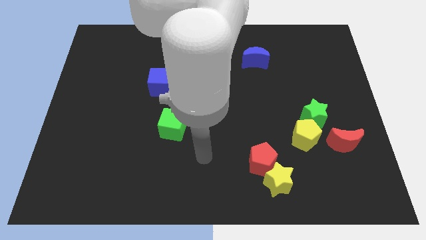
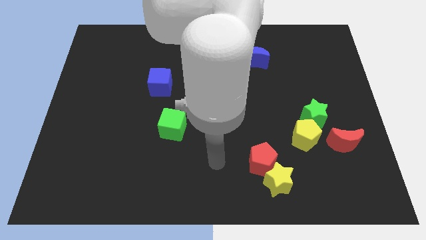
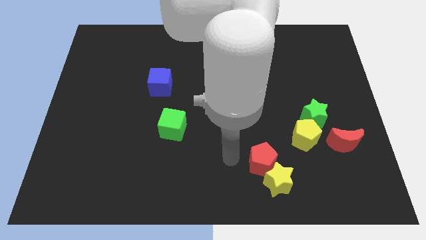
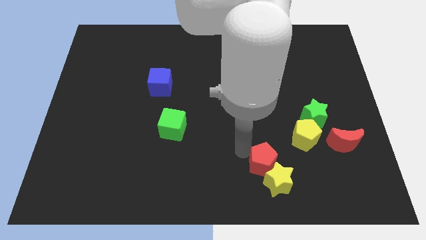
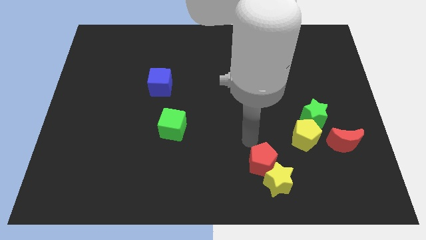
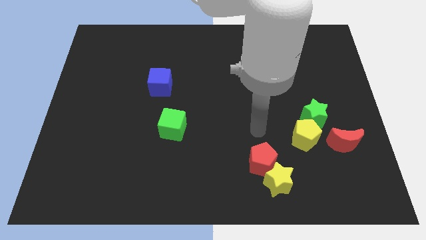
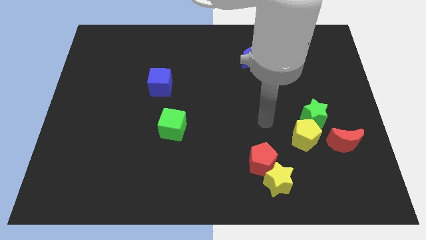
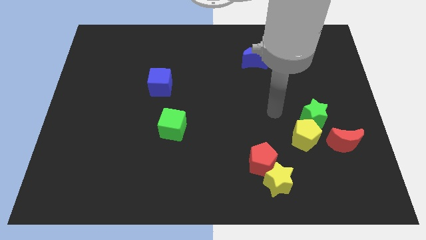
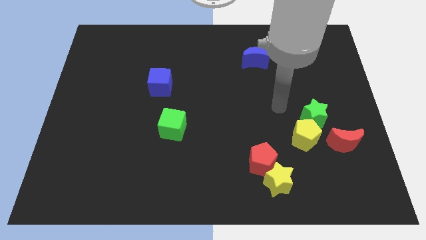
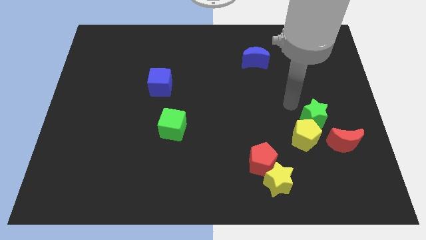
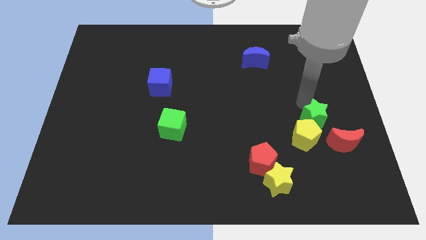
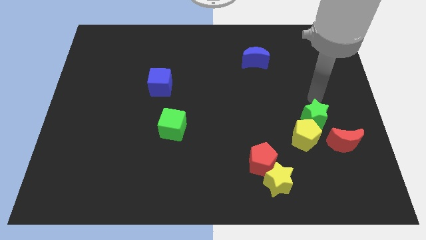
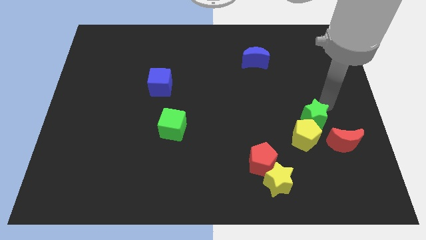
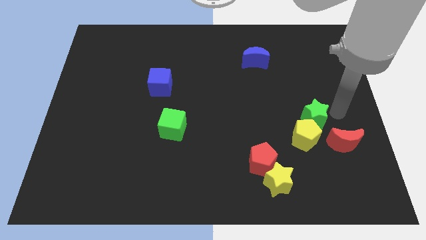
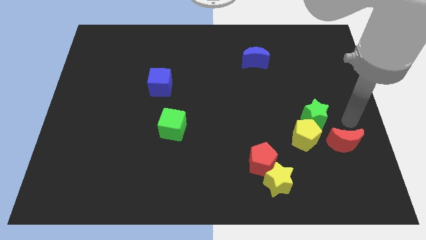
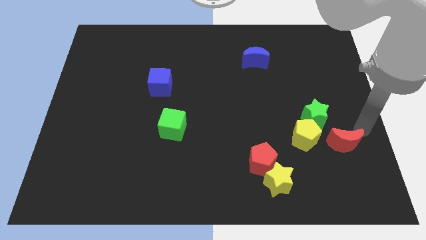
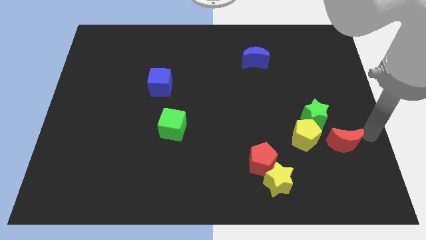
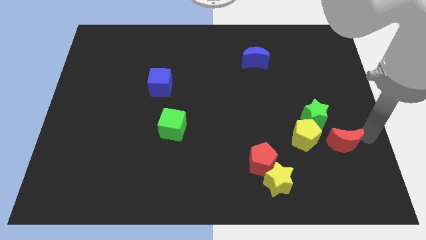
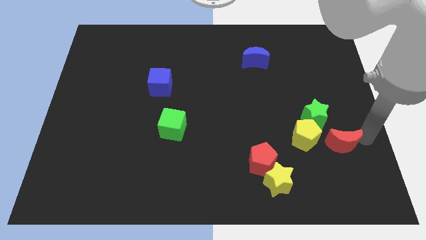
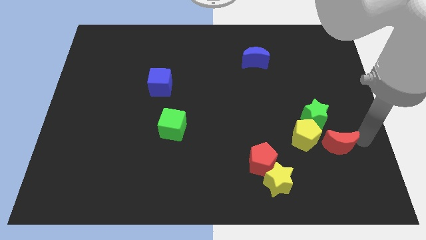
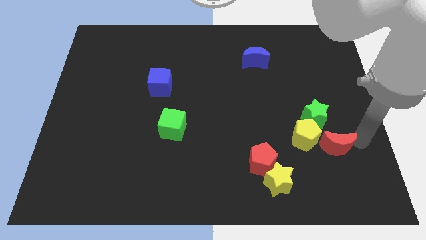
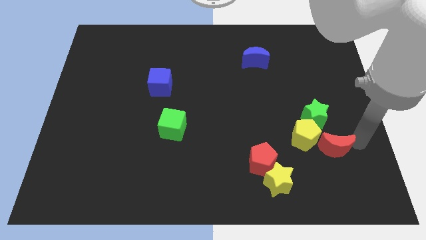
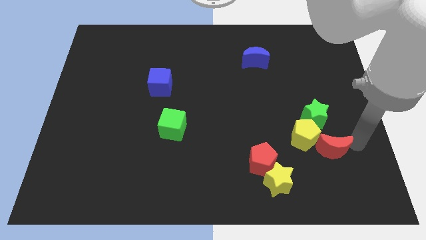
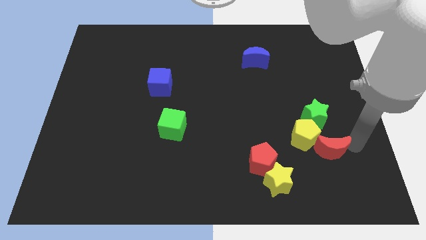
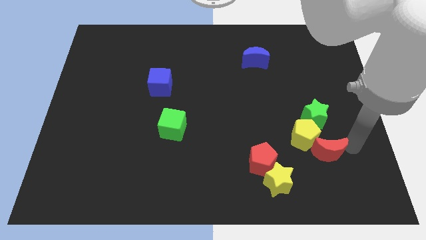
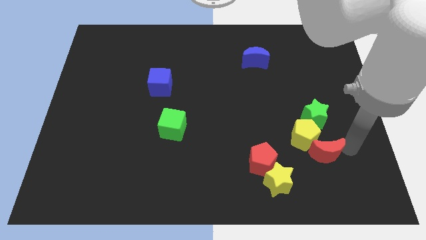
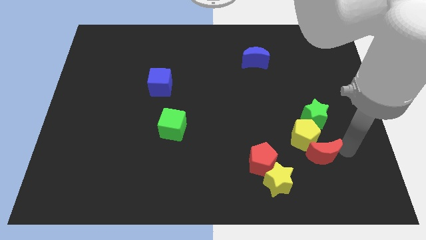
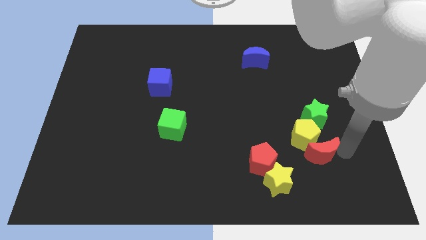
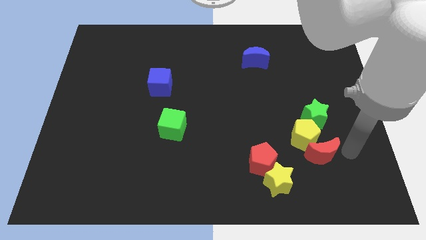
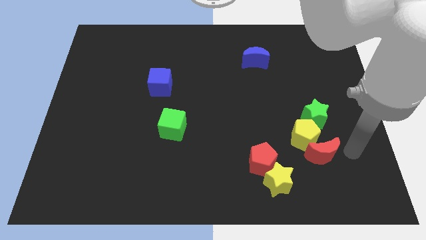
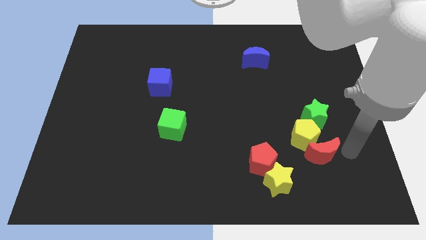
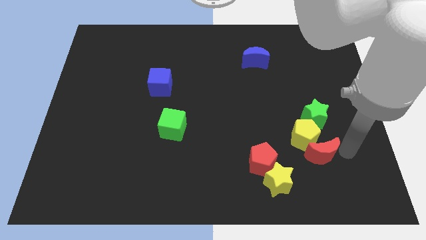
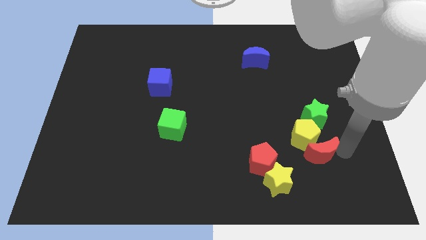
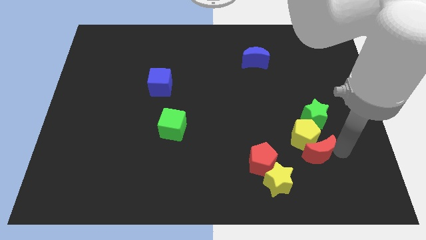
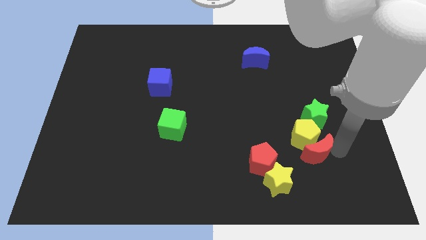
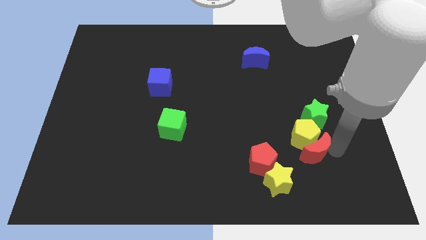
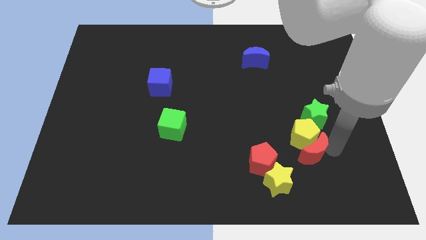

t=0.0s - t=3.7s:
move the red moon slightly to the left

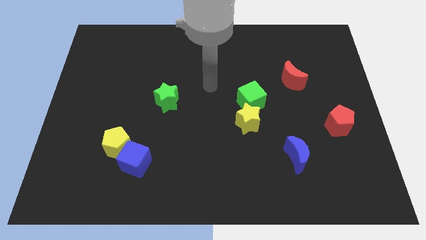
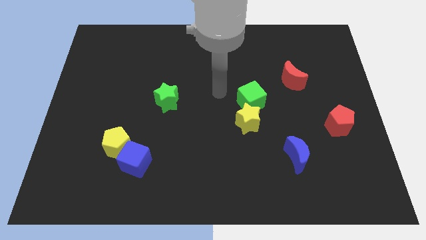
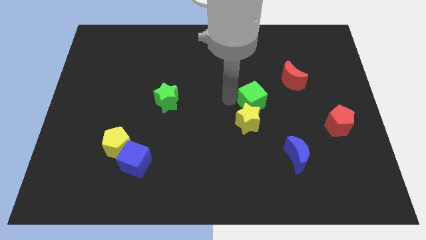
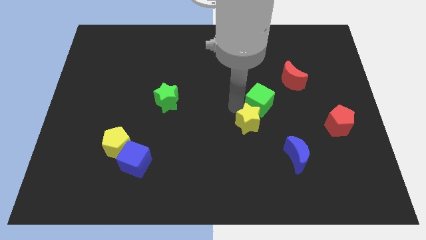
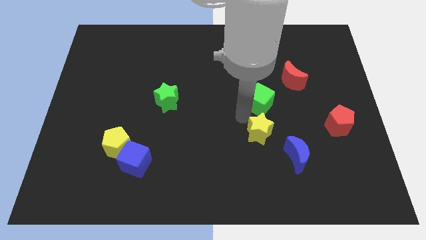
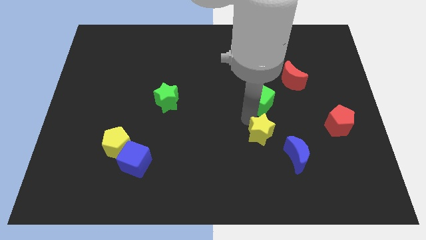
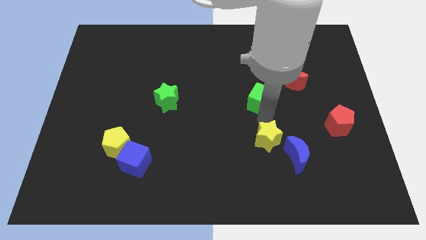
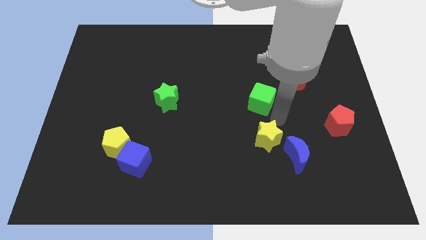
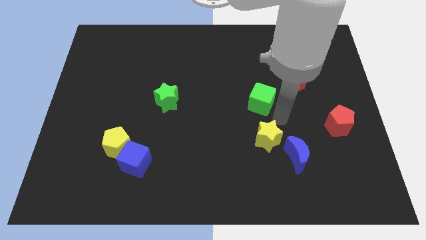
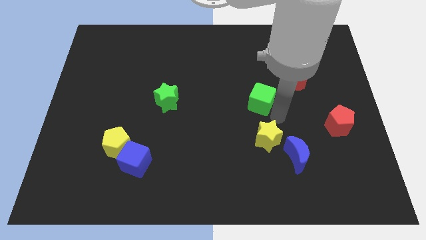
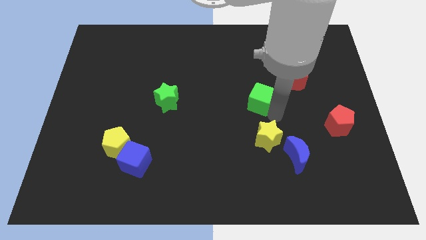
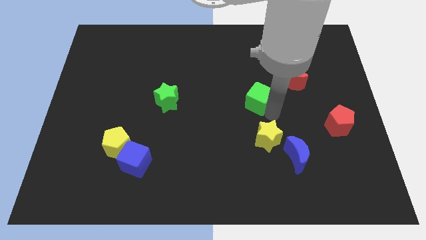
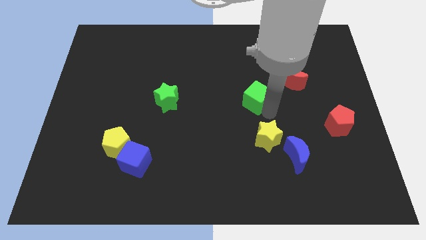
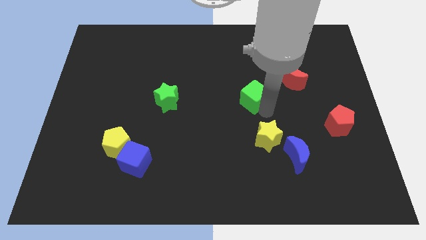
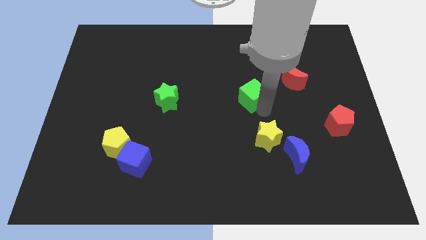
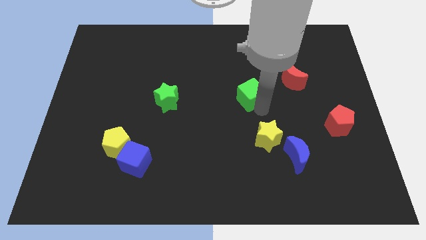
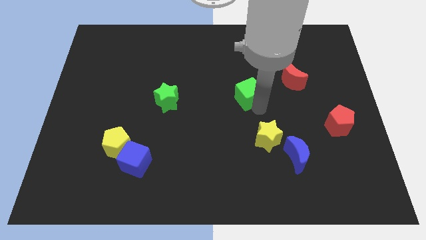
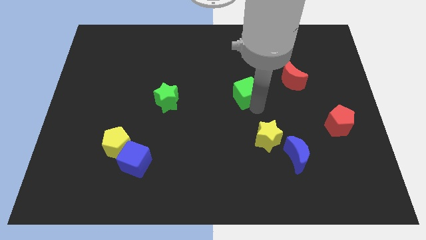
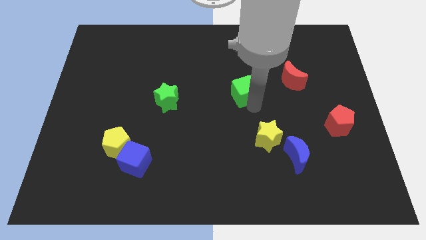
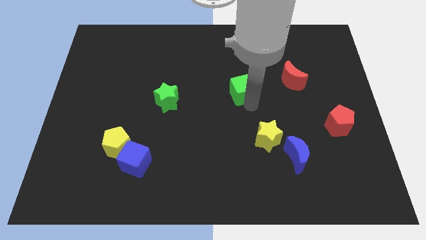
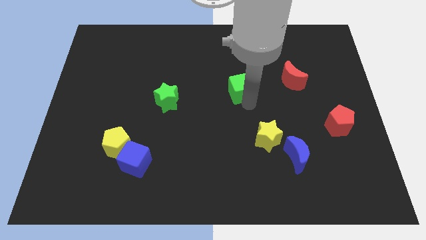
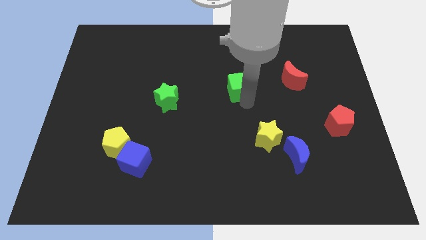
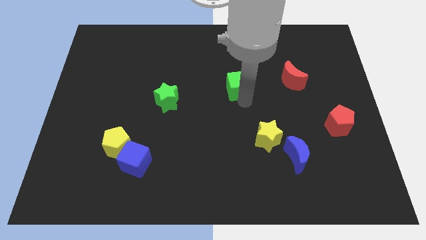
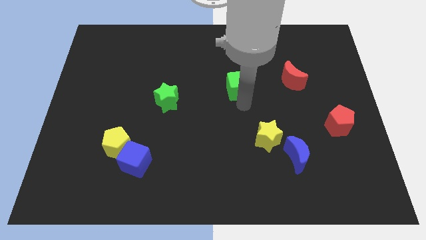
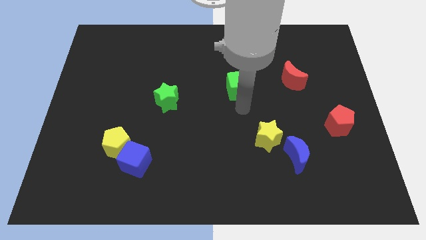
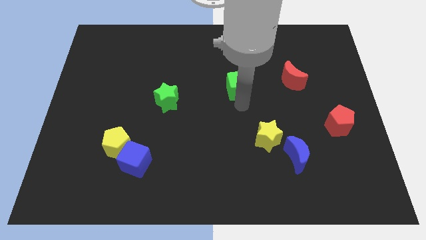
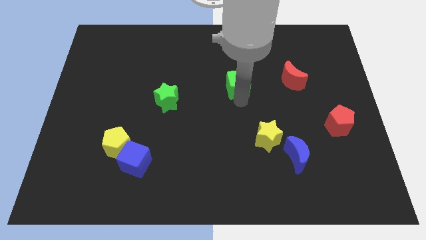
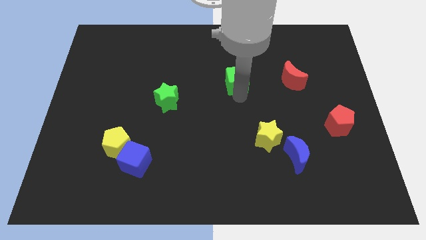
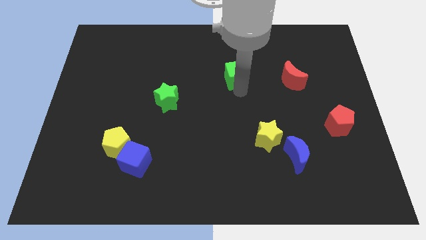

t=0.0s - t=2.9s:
push the green cube up and then left slightly

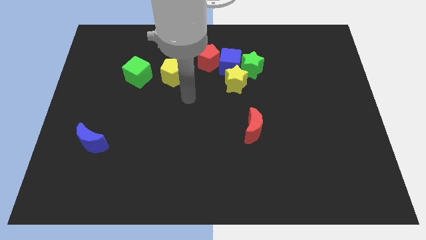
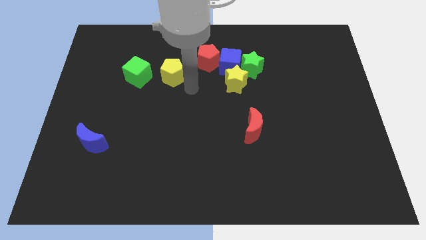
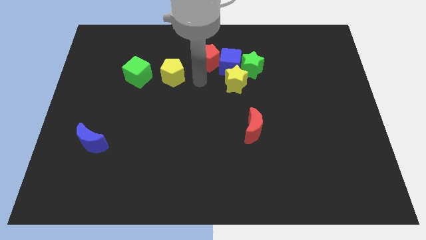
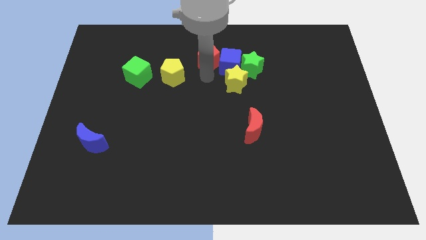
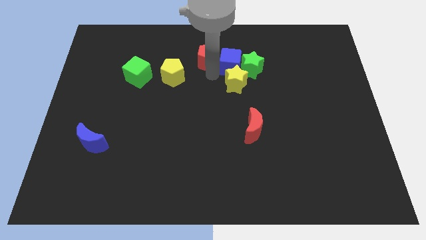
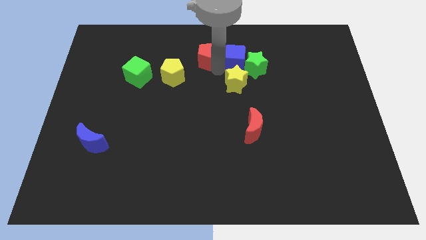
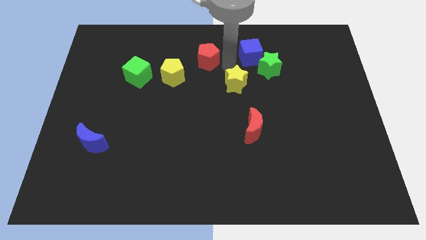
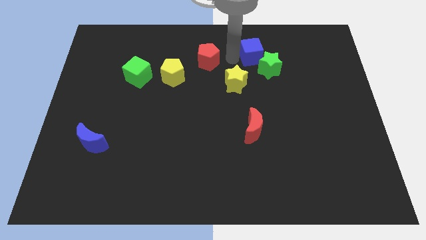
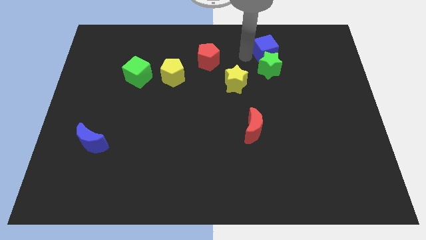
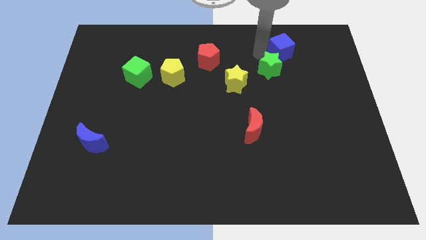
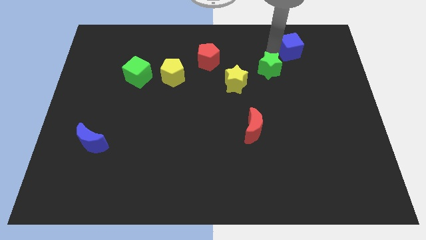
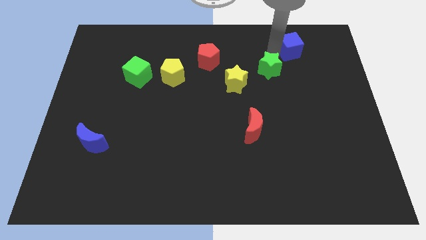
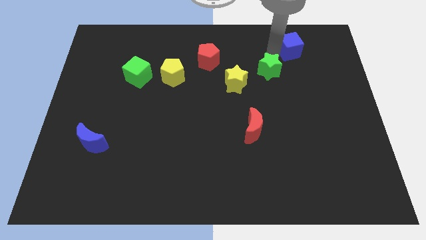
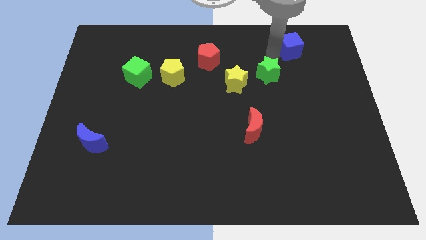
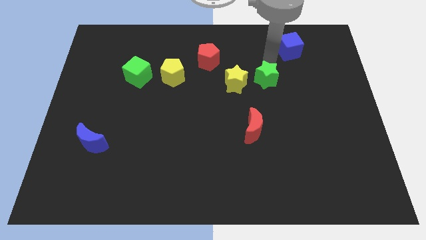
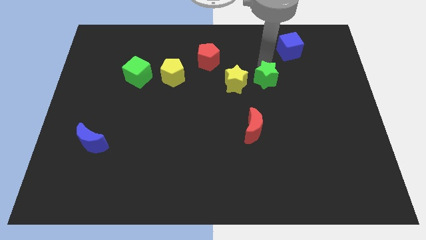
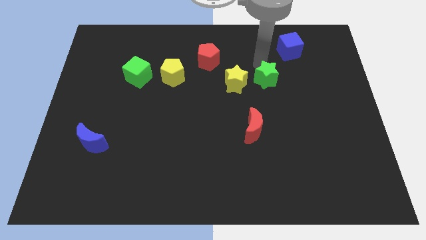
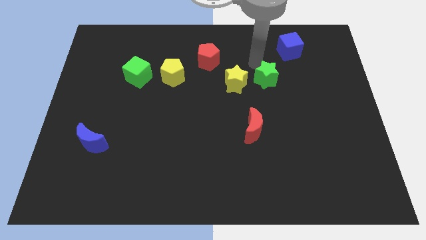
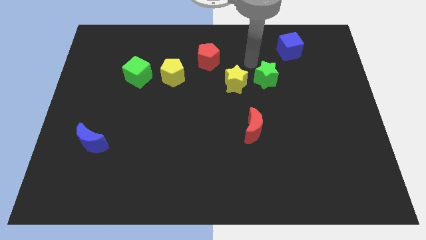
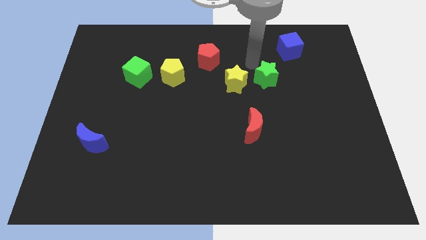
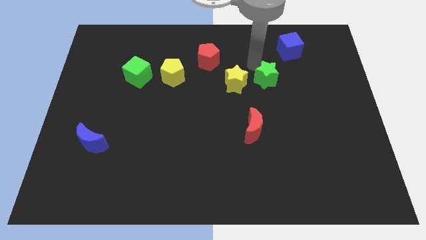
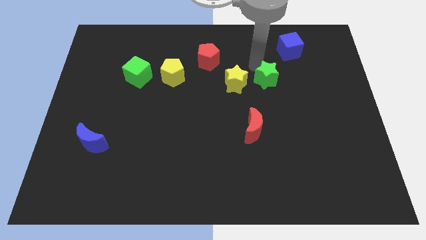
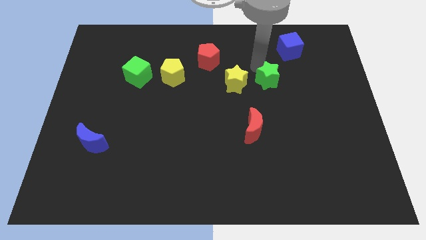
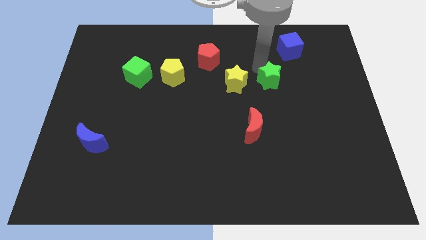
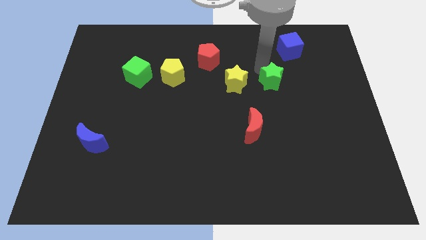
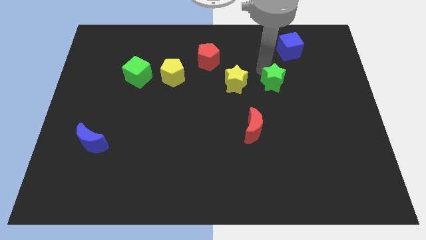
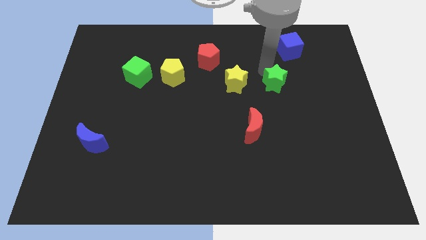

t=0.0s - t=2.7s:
slide the green star diagonally down and to the right a little bit
